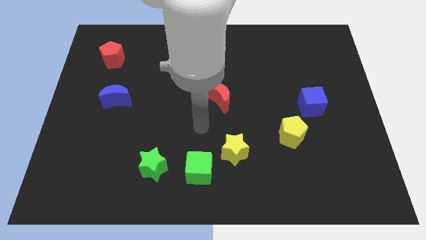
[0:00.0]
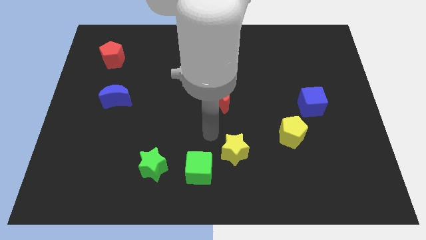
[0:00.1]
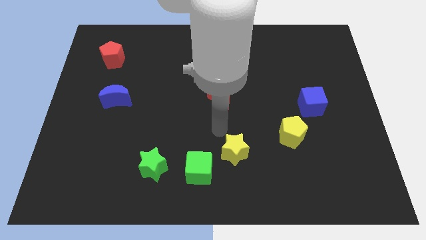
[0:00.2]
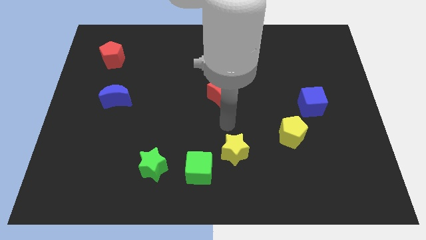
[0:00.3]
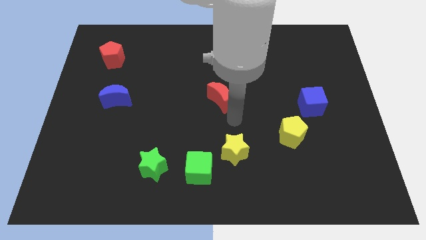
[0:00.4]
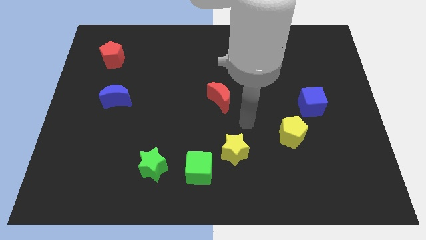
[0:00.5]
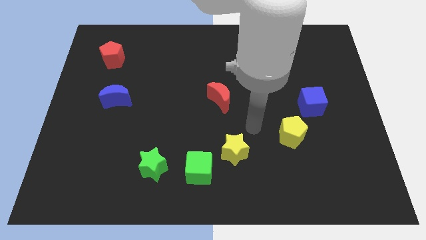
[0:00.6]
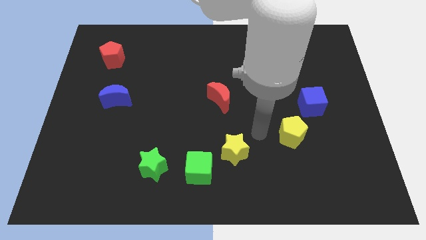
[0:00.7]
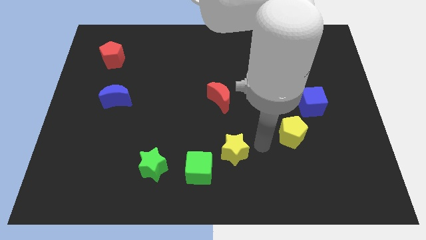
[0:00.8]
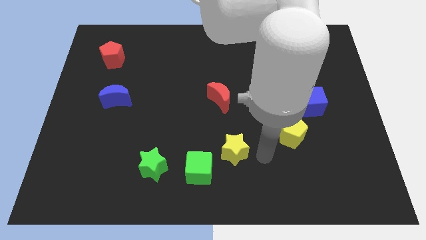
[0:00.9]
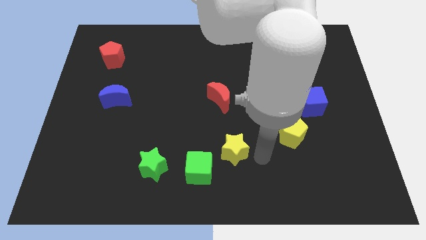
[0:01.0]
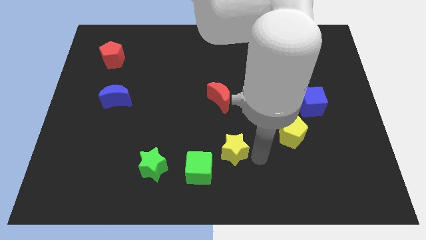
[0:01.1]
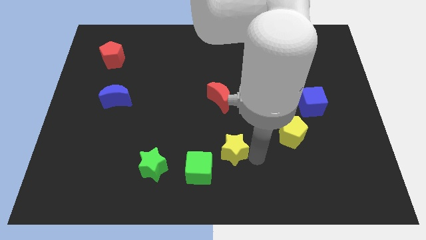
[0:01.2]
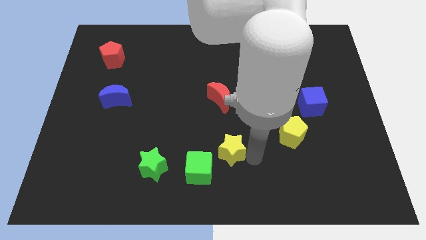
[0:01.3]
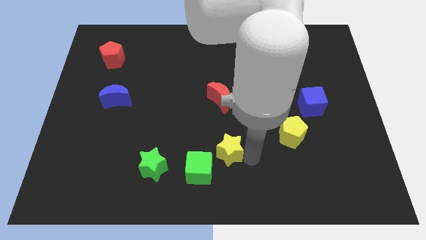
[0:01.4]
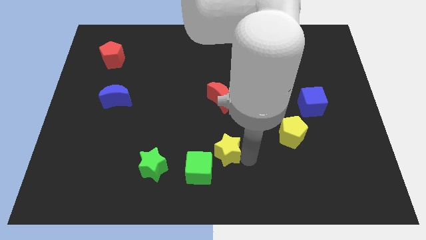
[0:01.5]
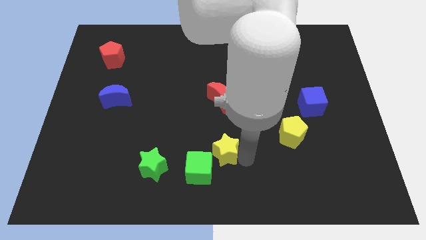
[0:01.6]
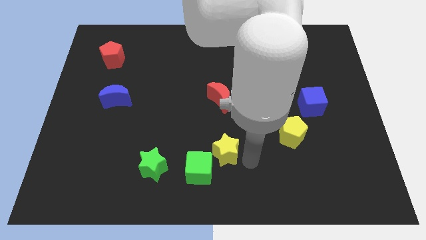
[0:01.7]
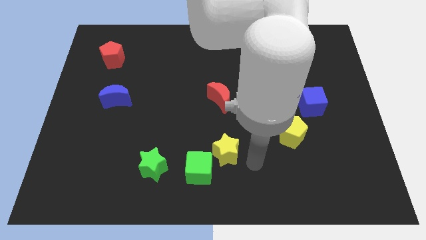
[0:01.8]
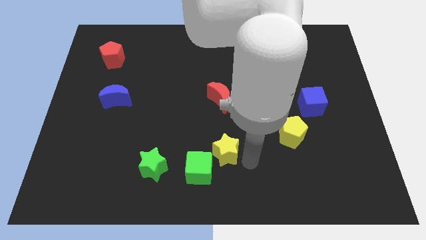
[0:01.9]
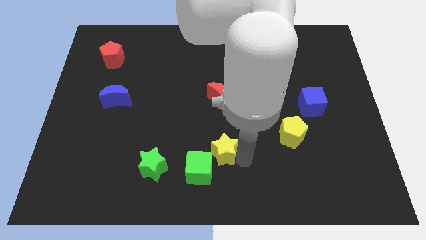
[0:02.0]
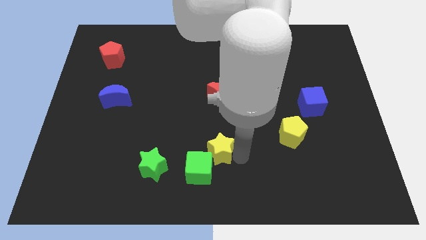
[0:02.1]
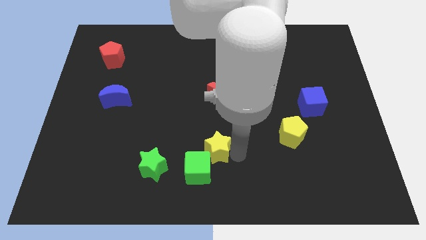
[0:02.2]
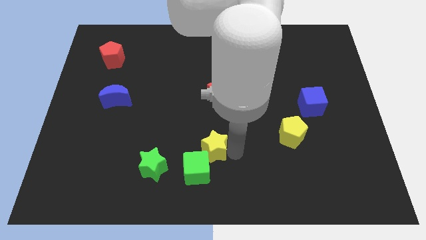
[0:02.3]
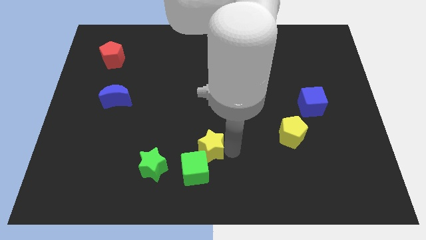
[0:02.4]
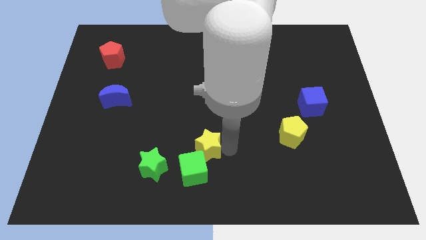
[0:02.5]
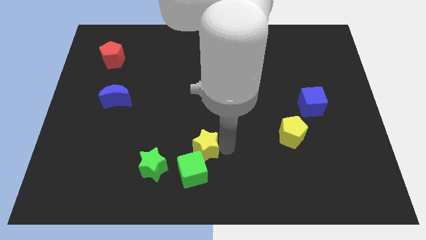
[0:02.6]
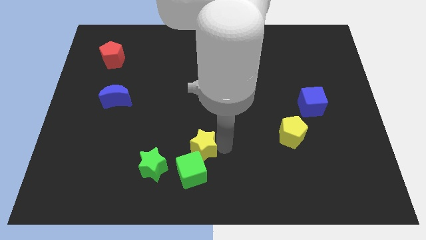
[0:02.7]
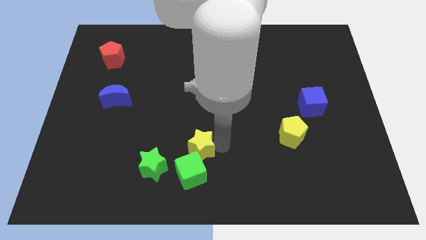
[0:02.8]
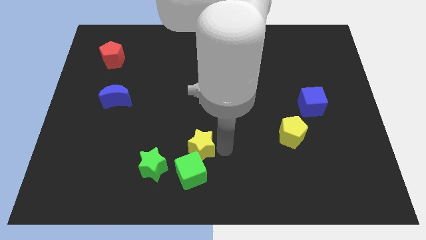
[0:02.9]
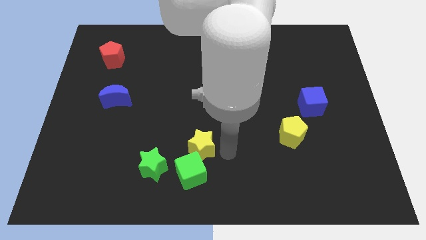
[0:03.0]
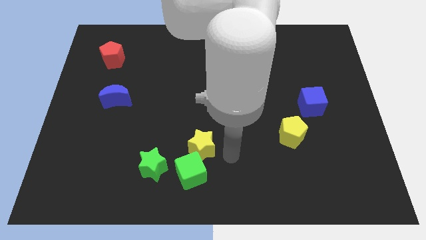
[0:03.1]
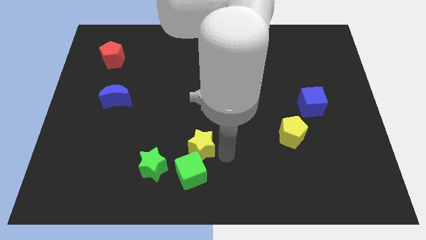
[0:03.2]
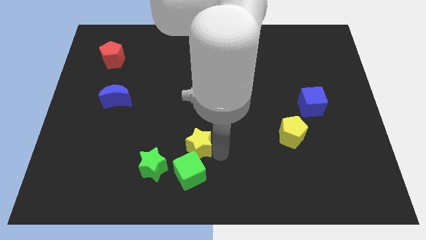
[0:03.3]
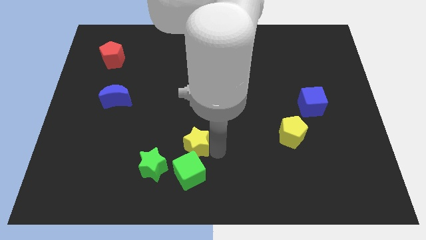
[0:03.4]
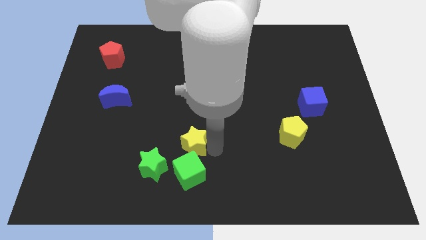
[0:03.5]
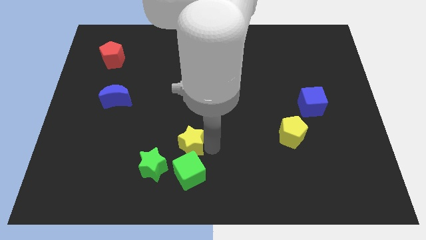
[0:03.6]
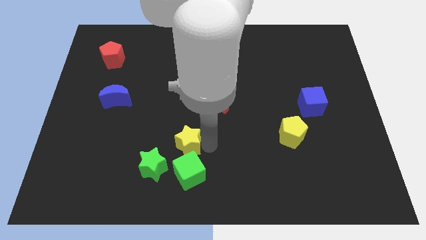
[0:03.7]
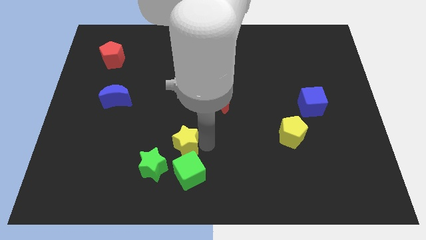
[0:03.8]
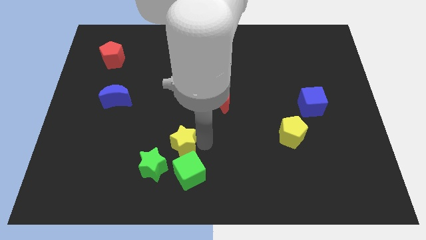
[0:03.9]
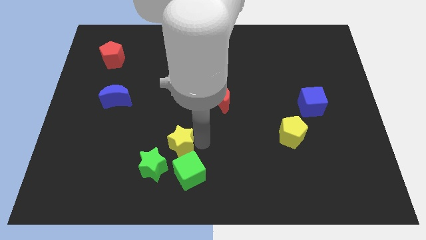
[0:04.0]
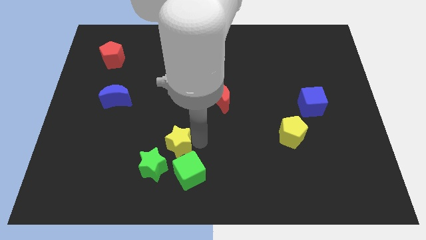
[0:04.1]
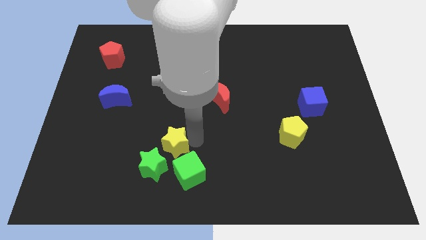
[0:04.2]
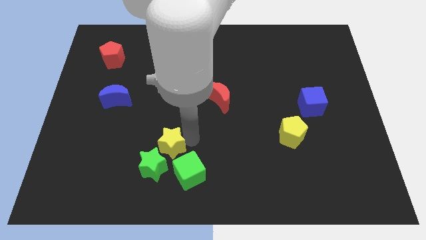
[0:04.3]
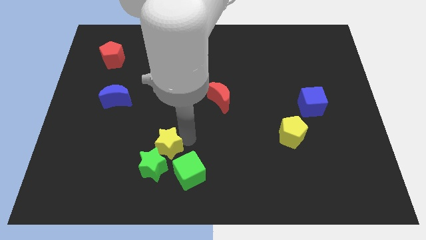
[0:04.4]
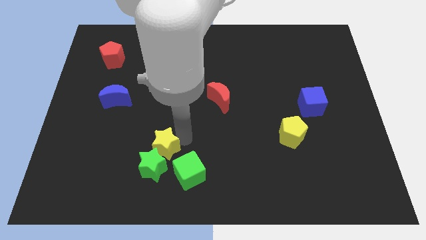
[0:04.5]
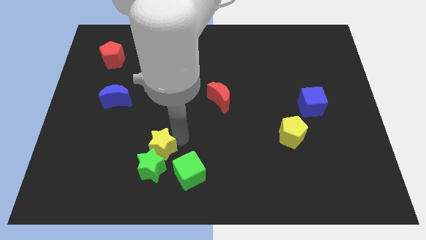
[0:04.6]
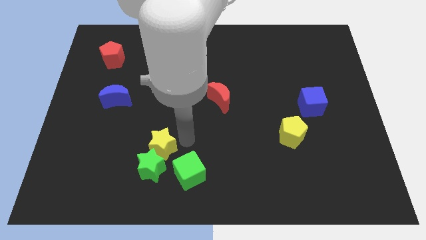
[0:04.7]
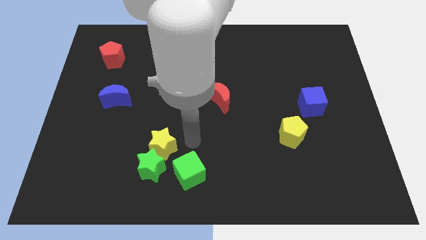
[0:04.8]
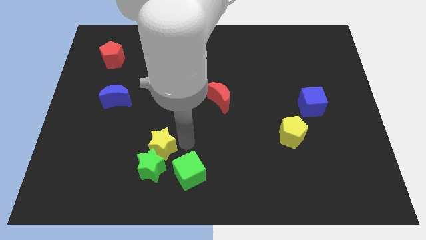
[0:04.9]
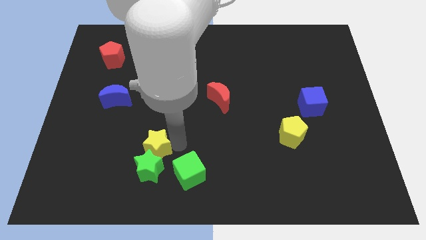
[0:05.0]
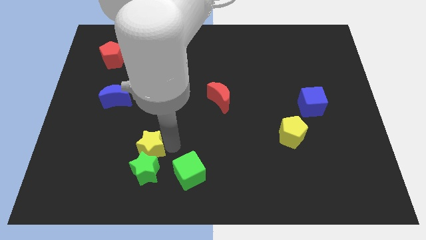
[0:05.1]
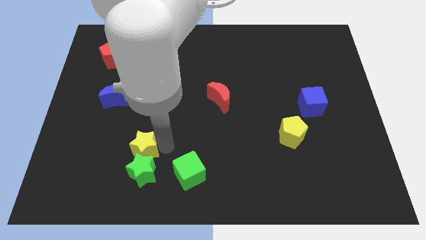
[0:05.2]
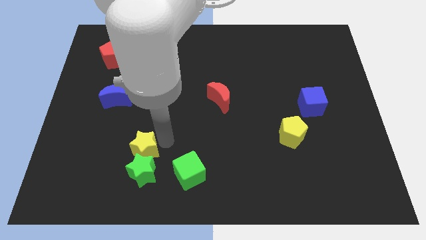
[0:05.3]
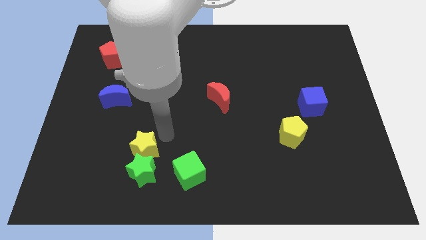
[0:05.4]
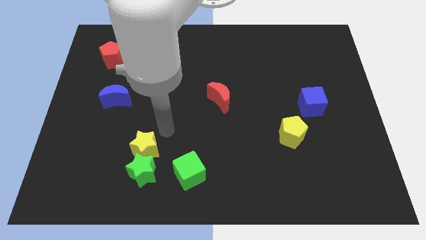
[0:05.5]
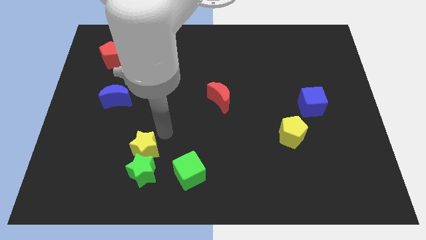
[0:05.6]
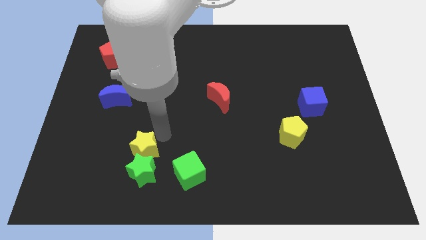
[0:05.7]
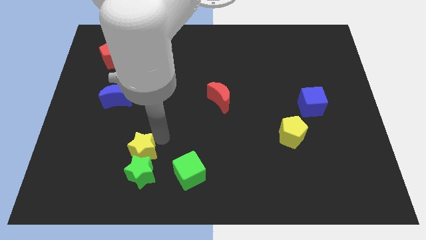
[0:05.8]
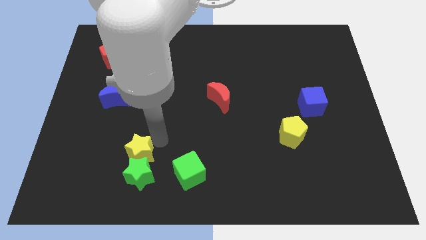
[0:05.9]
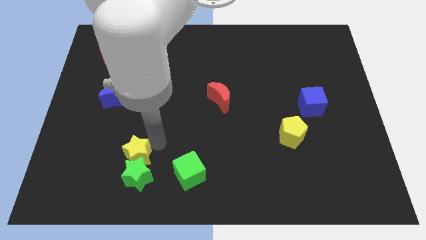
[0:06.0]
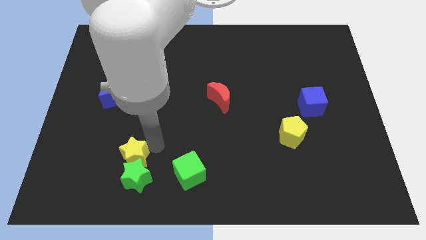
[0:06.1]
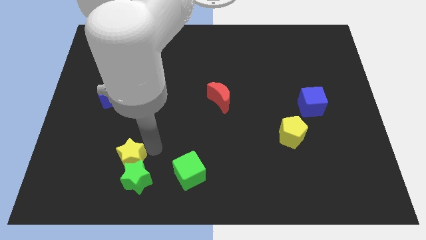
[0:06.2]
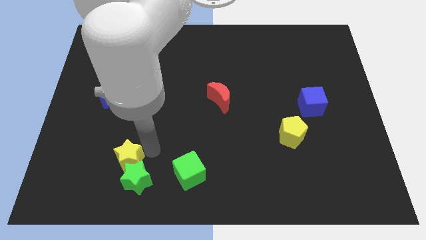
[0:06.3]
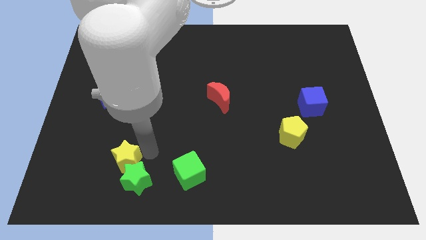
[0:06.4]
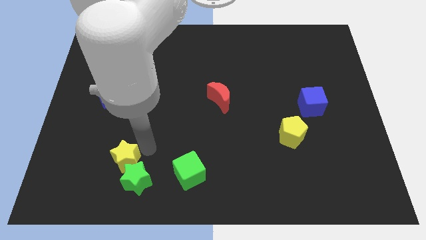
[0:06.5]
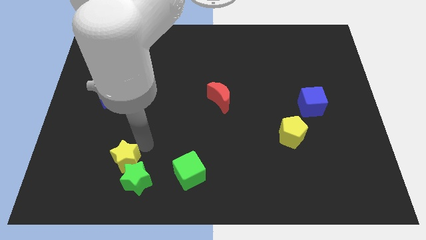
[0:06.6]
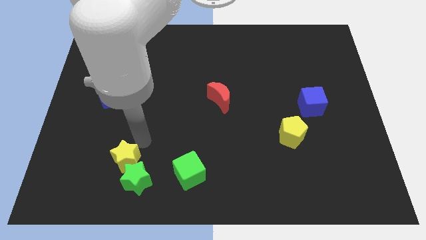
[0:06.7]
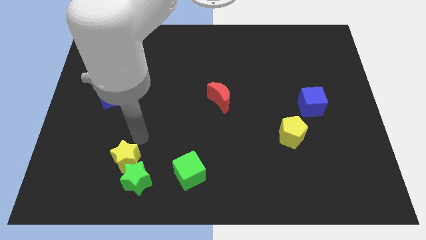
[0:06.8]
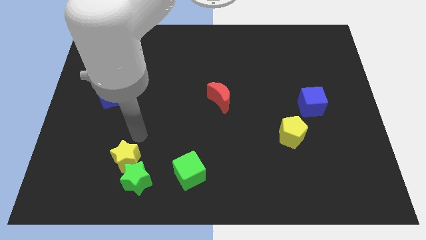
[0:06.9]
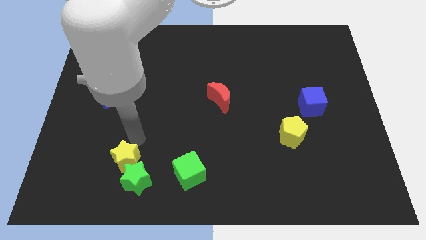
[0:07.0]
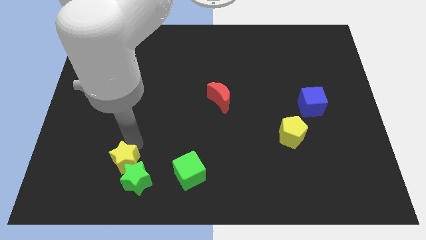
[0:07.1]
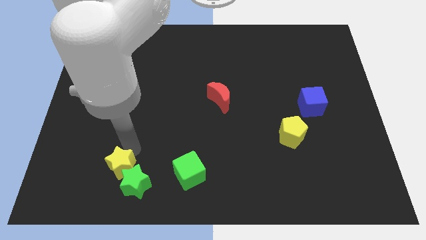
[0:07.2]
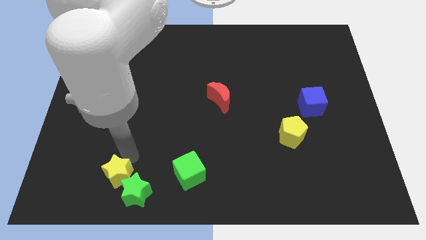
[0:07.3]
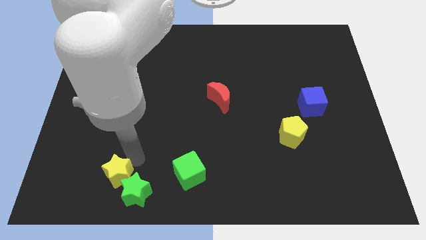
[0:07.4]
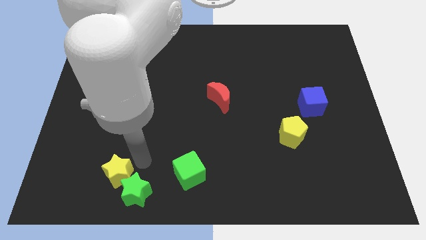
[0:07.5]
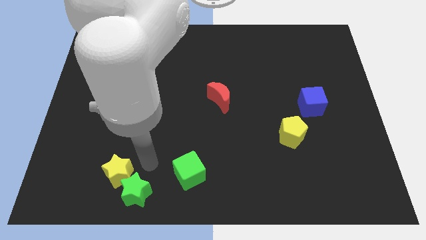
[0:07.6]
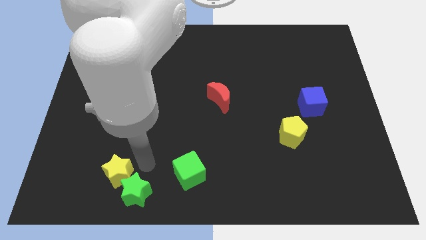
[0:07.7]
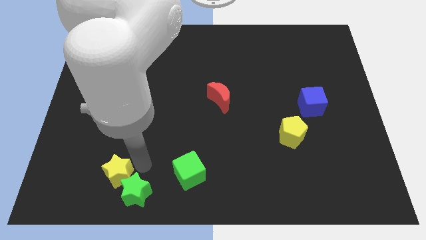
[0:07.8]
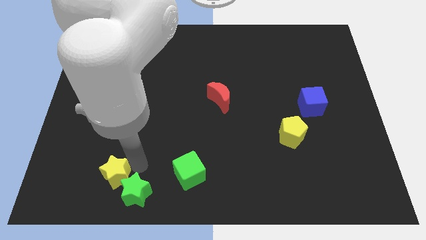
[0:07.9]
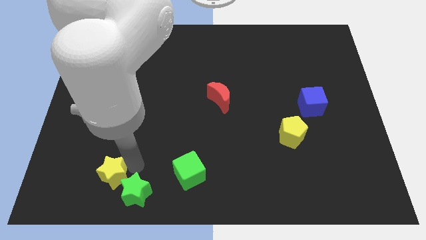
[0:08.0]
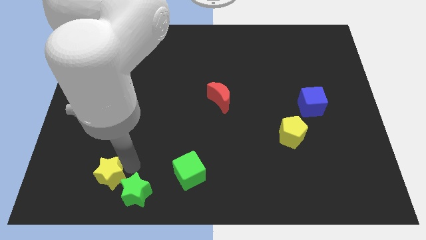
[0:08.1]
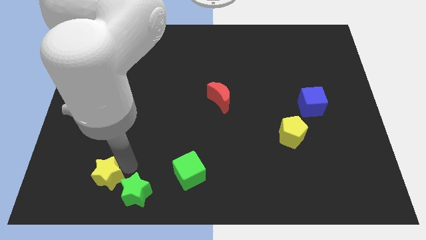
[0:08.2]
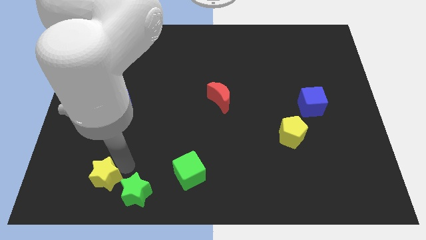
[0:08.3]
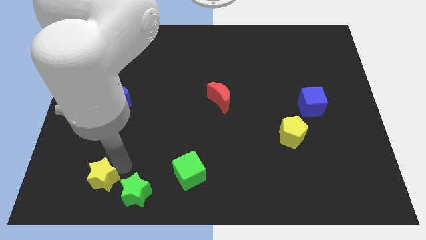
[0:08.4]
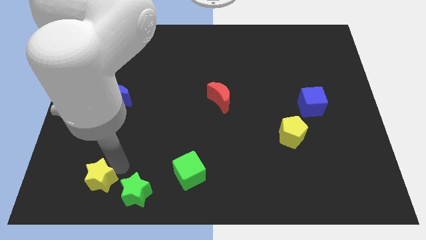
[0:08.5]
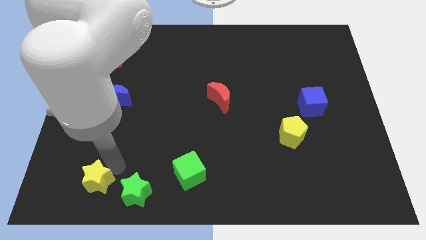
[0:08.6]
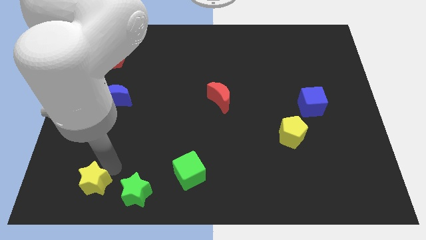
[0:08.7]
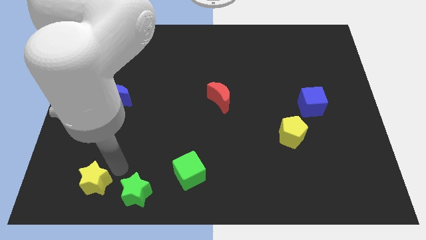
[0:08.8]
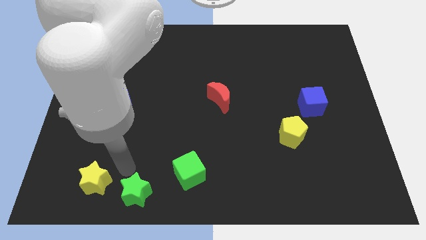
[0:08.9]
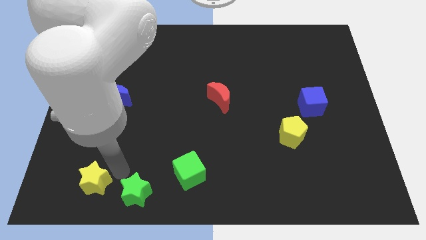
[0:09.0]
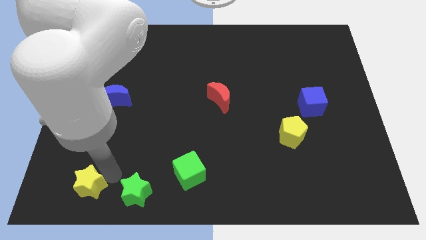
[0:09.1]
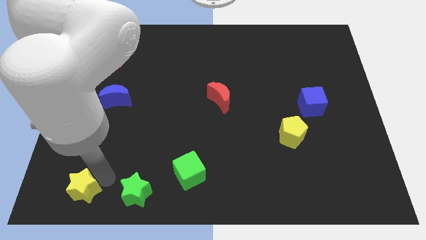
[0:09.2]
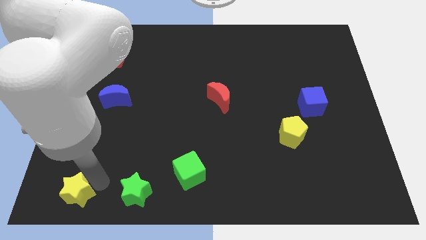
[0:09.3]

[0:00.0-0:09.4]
put the yellow star to the bottom left corner
